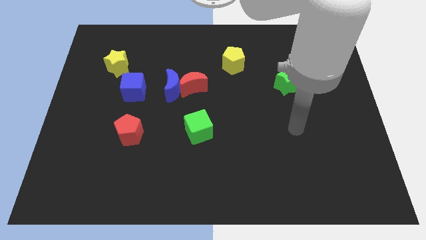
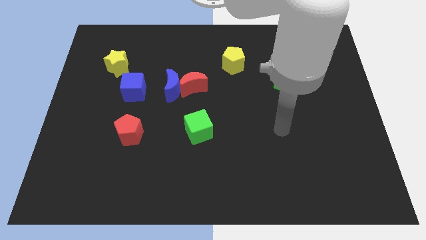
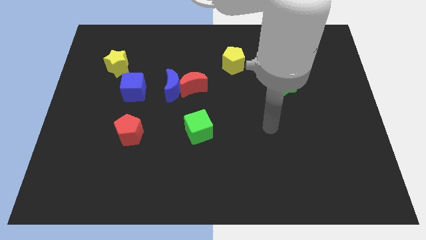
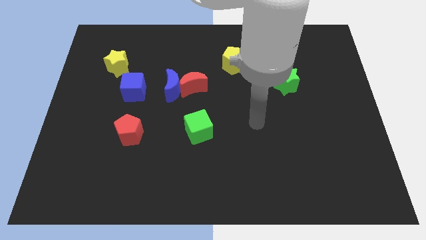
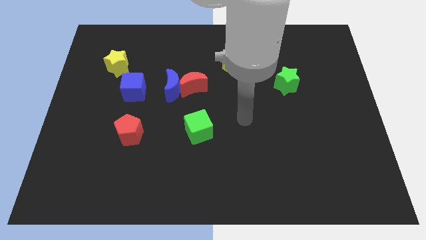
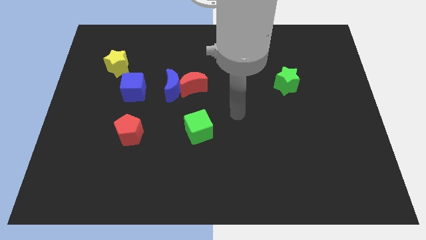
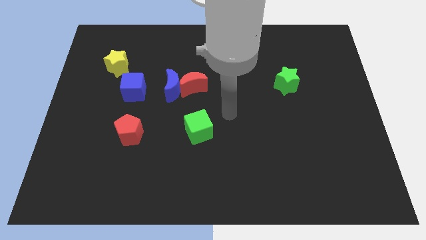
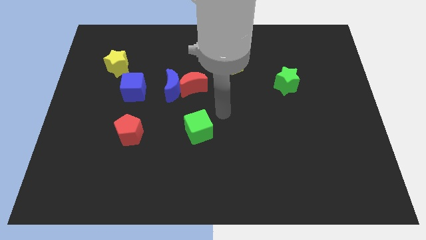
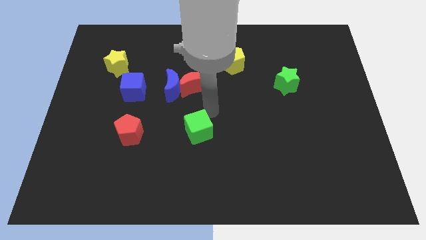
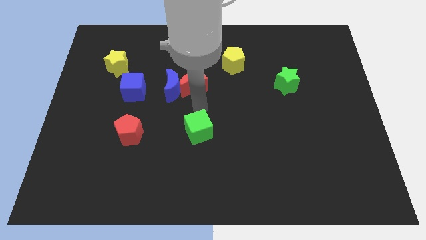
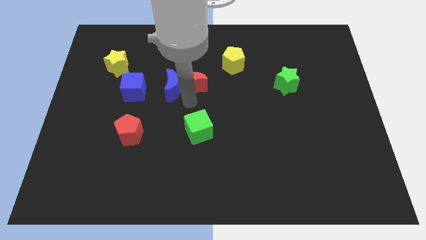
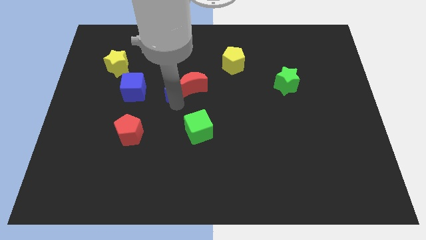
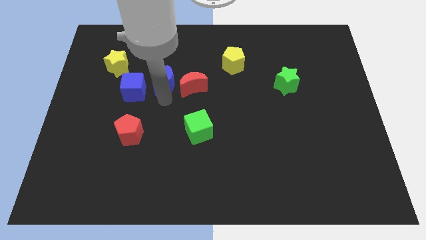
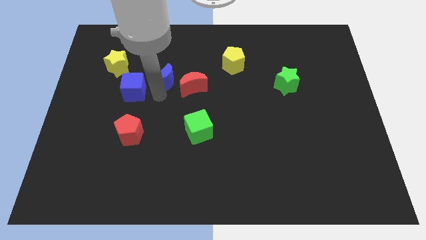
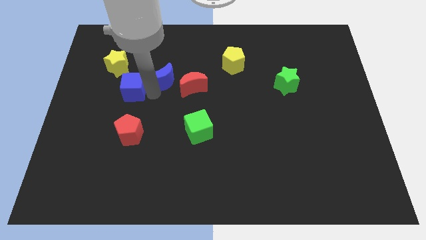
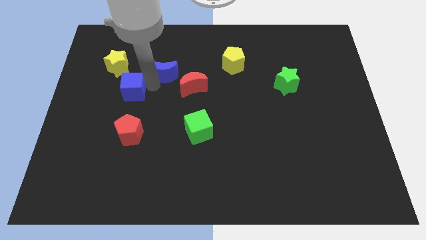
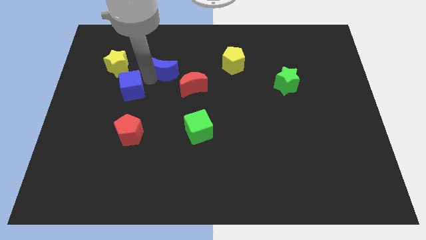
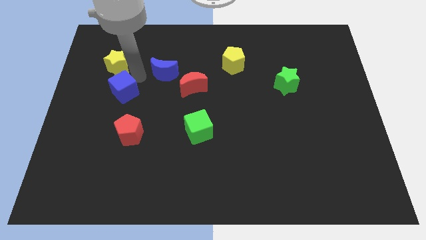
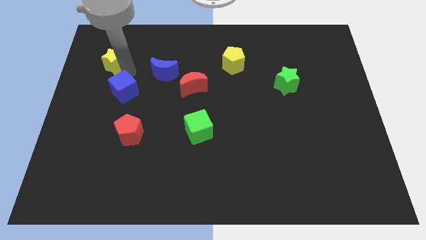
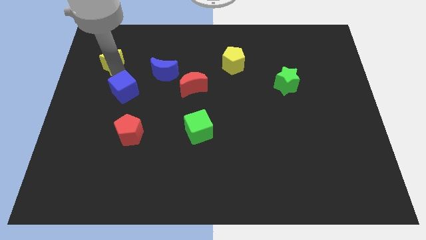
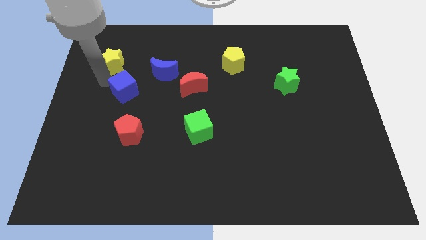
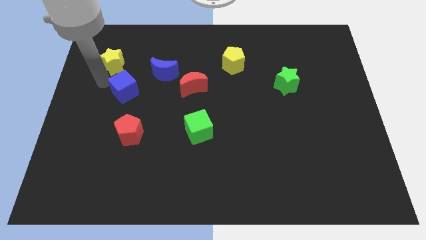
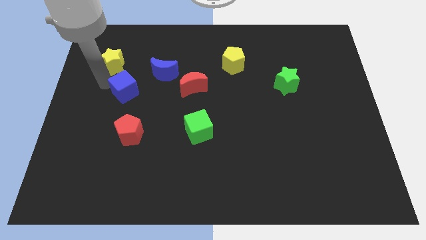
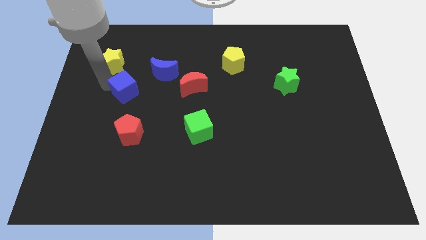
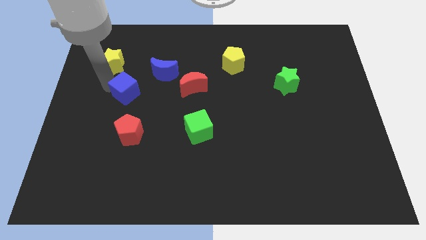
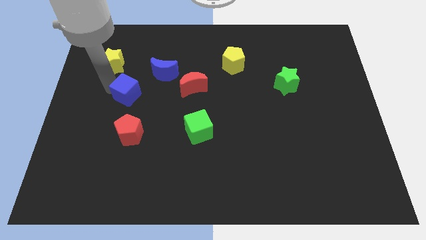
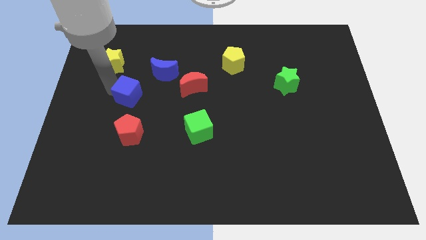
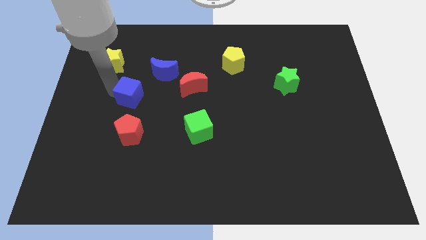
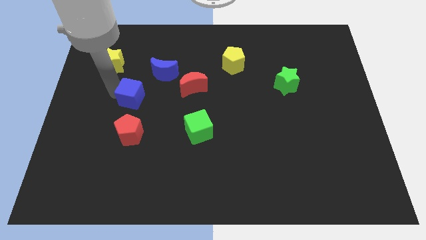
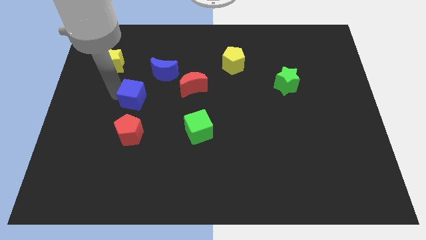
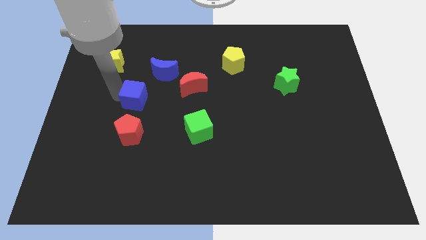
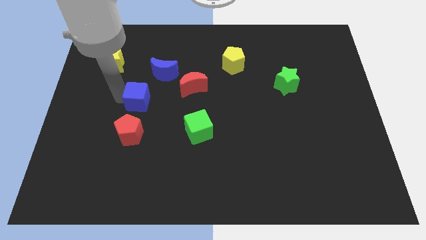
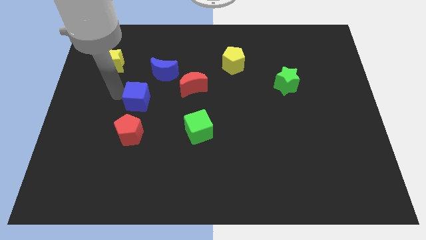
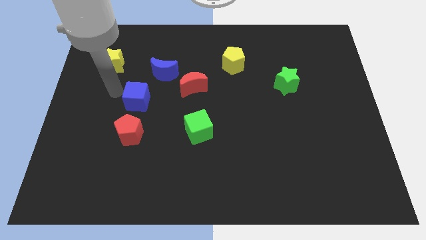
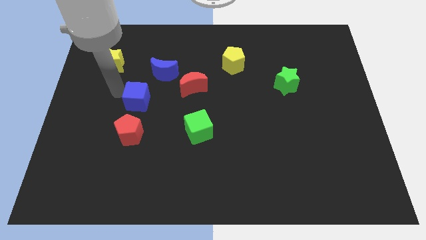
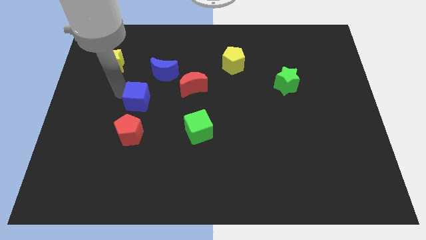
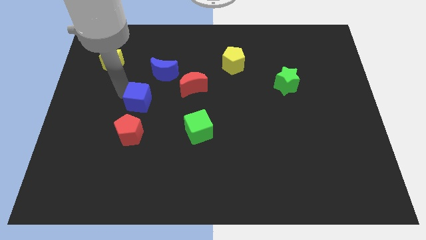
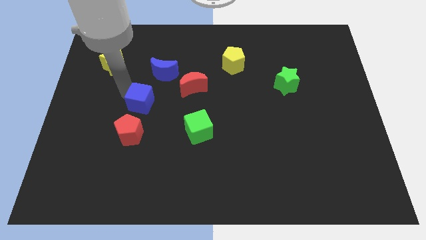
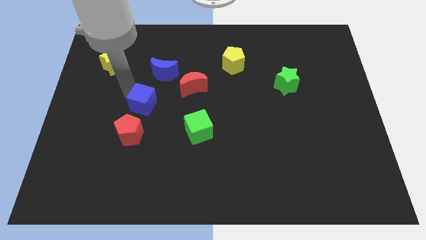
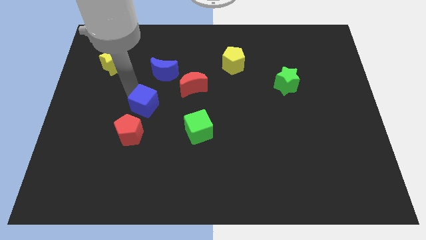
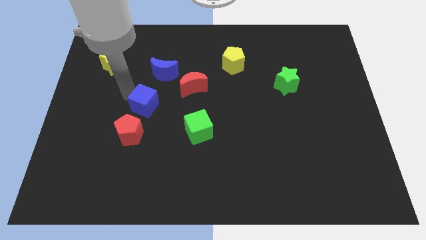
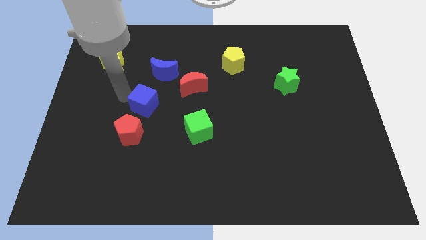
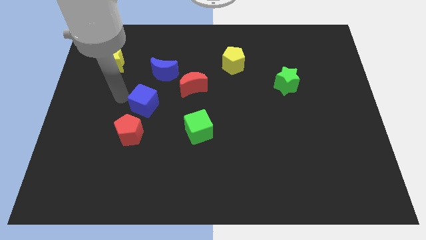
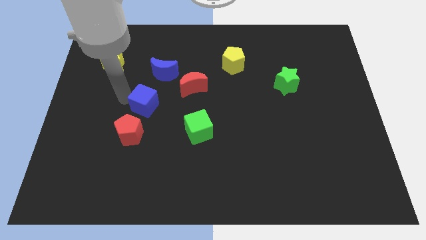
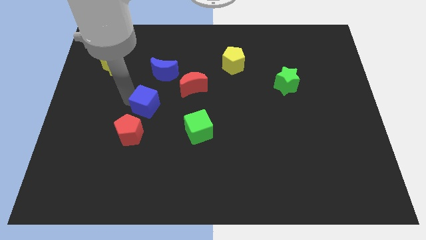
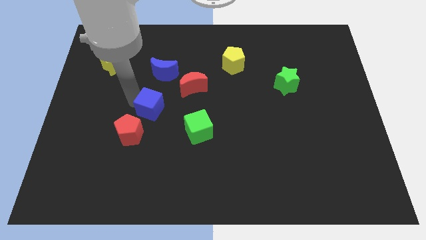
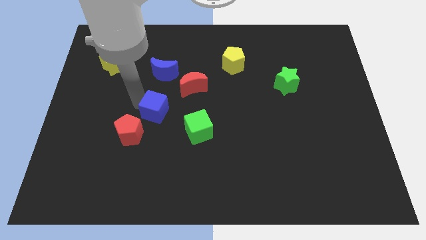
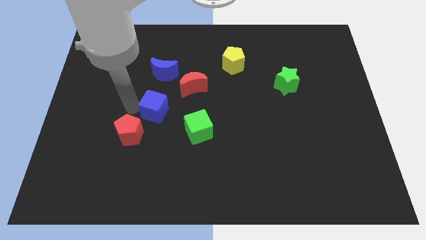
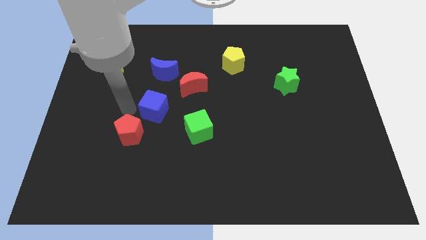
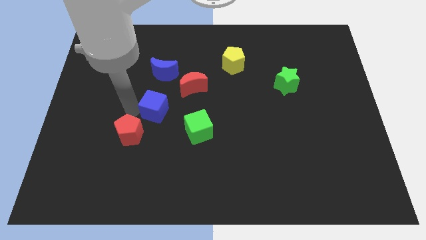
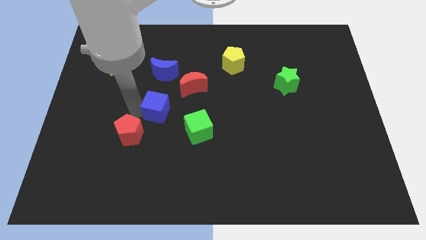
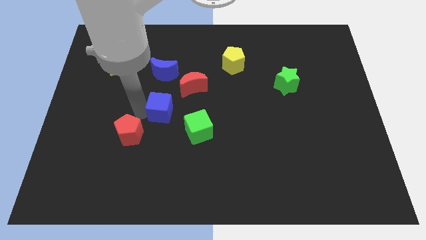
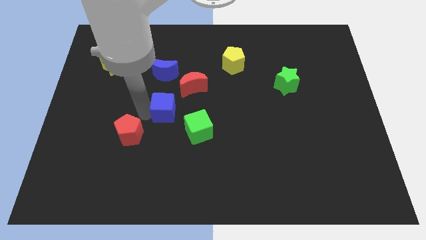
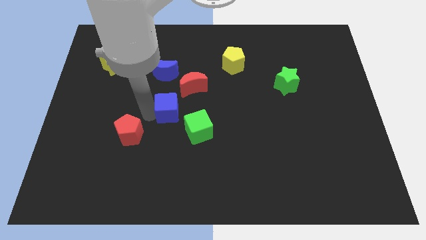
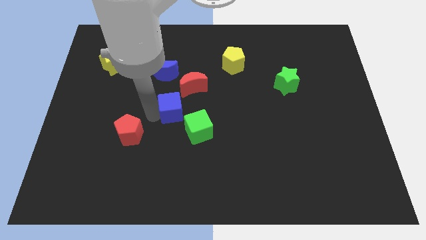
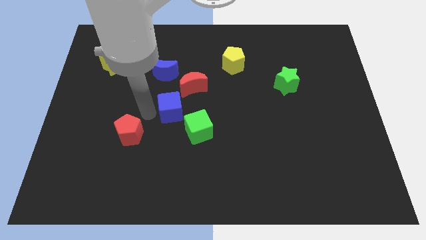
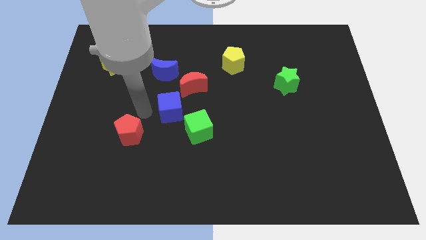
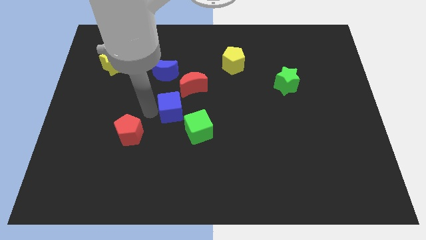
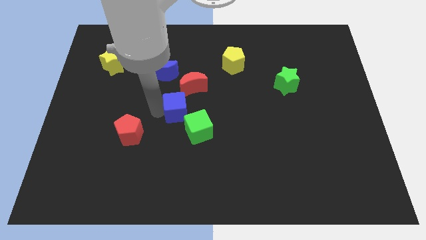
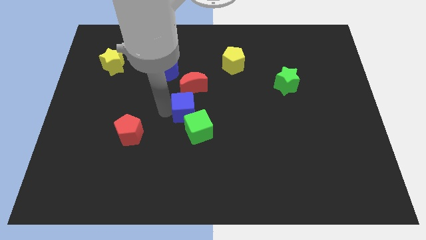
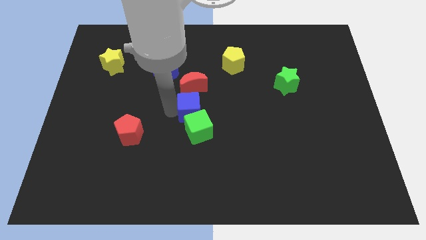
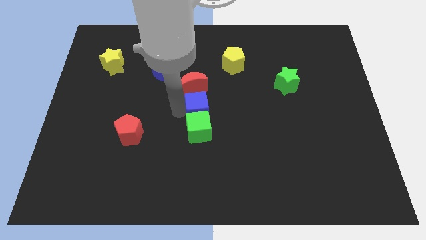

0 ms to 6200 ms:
move the blue cube diagonally down and to the right of the red moon

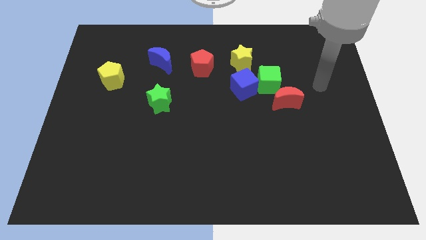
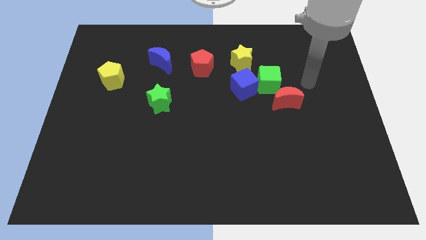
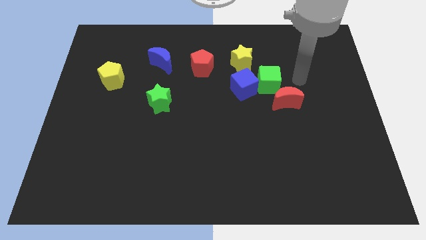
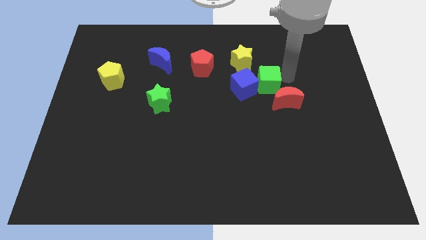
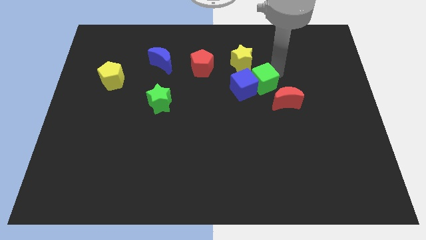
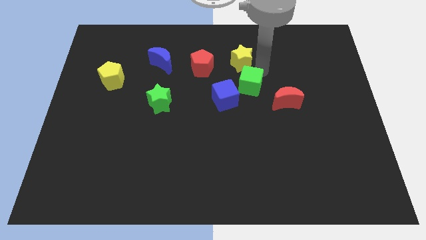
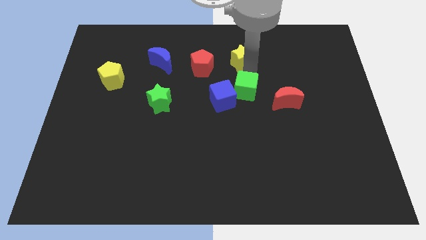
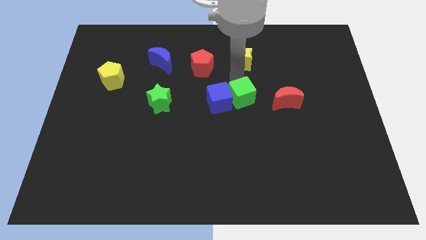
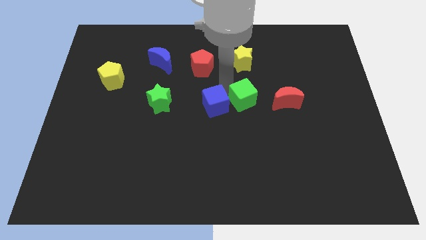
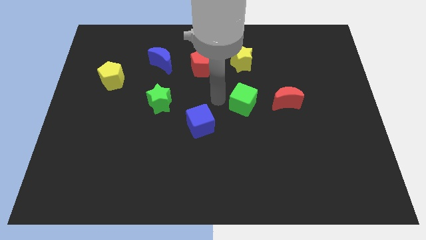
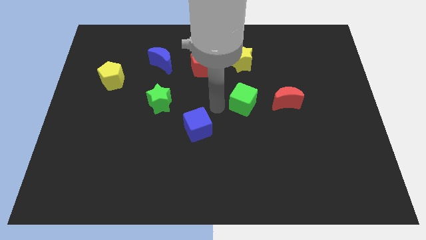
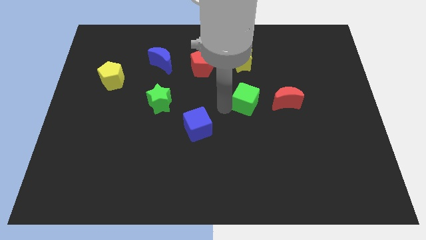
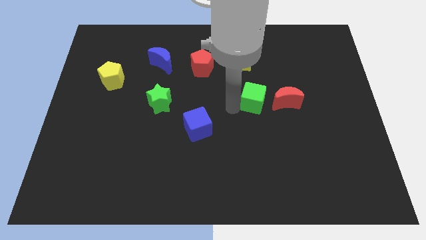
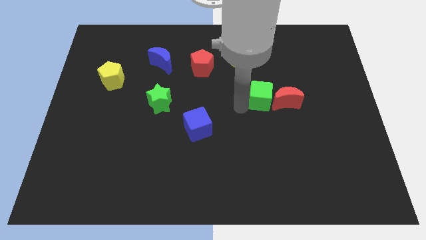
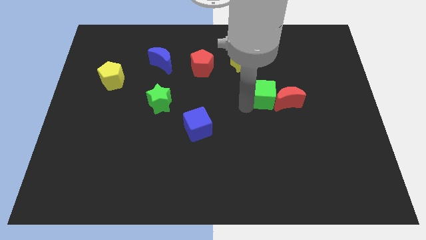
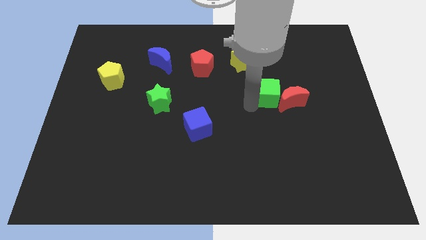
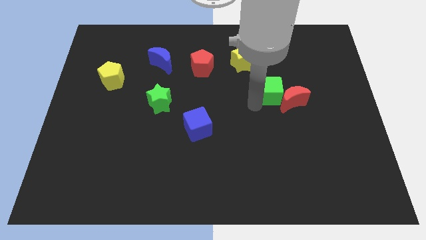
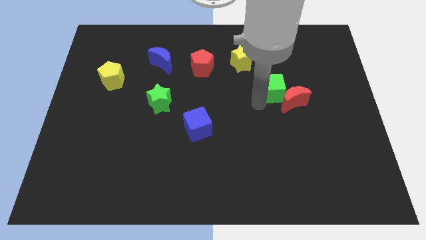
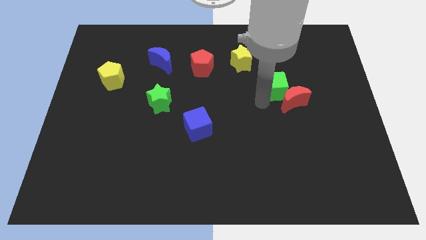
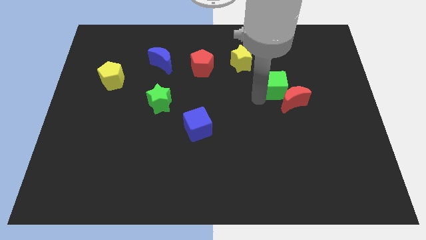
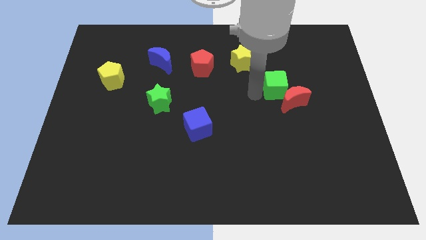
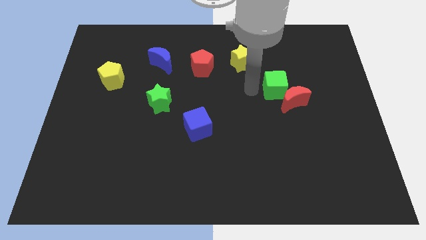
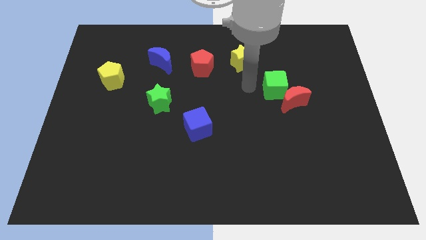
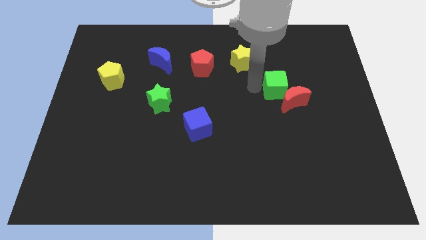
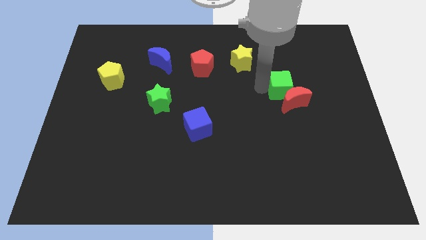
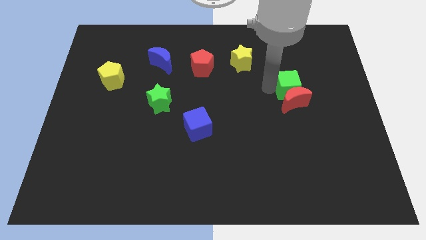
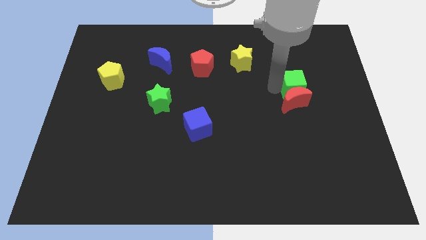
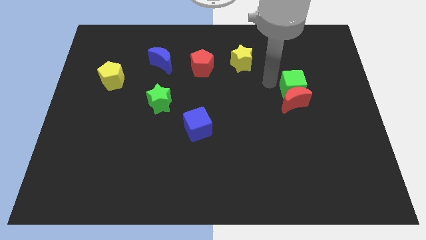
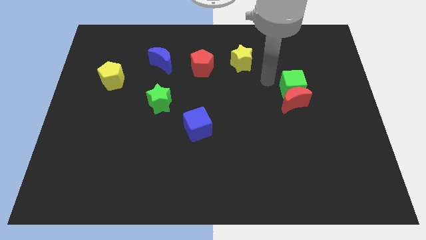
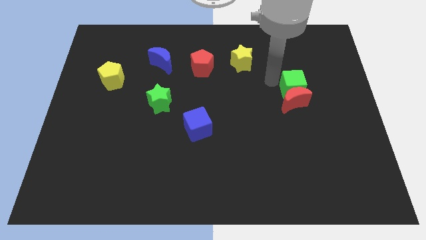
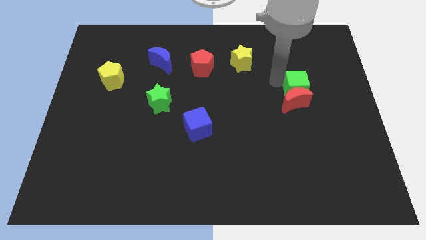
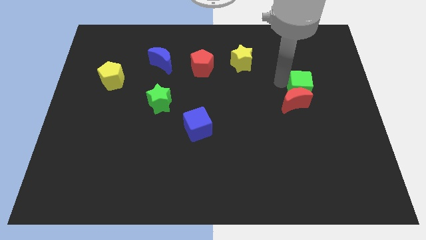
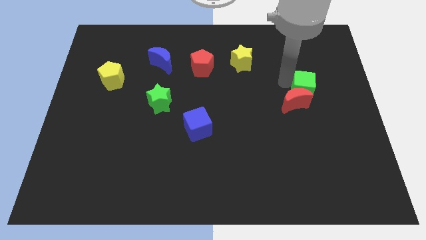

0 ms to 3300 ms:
move the green cube right of the red moon
